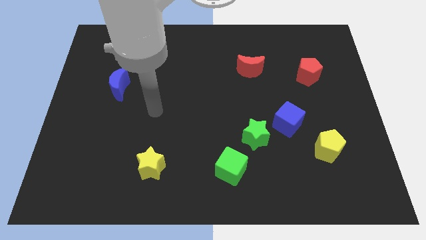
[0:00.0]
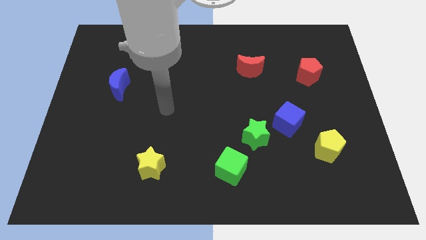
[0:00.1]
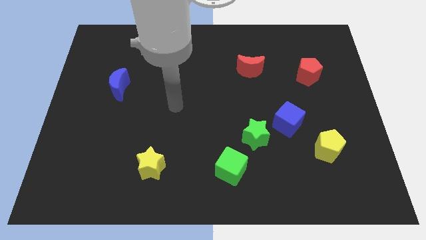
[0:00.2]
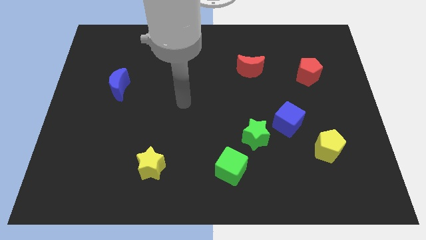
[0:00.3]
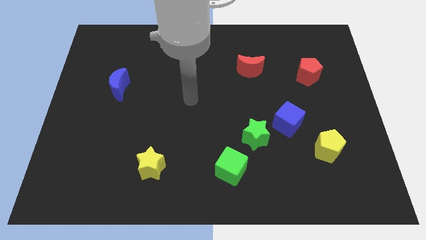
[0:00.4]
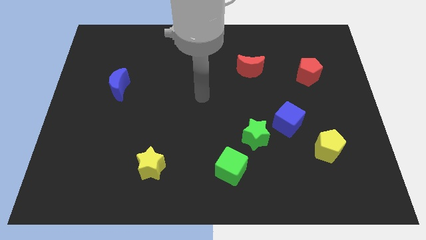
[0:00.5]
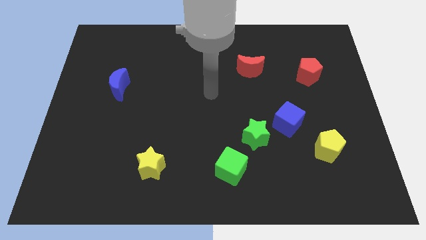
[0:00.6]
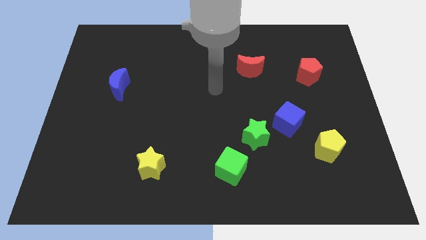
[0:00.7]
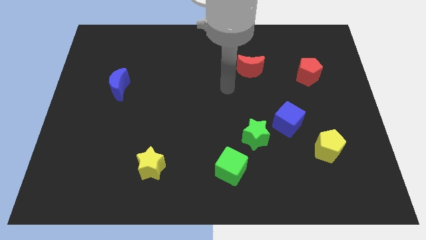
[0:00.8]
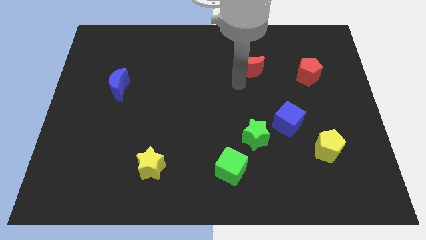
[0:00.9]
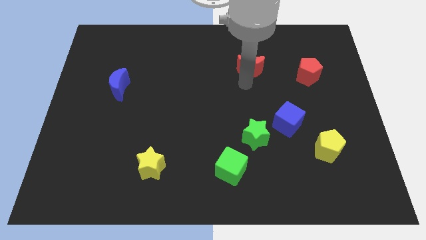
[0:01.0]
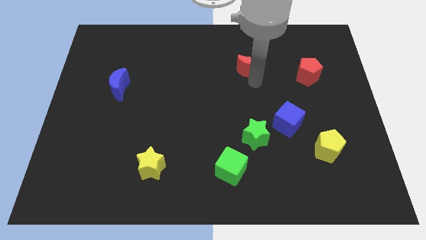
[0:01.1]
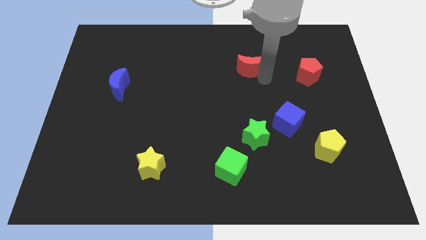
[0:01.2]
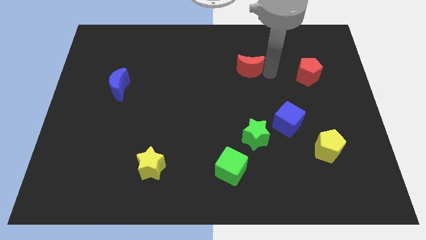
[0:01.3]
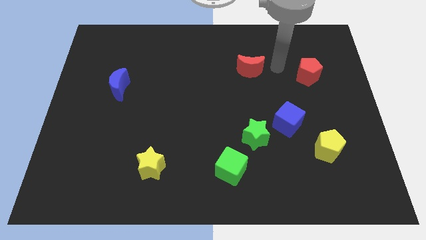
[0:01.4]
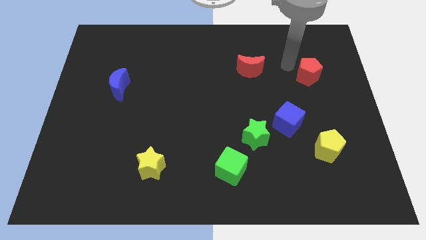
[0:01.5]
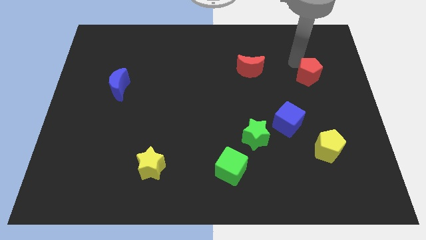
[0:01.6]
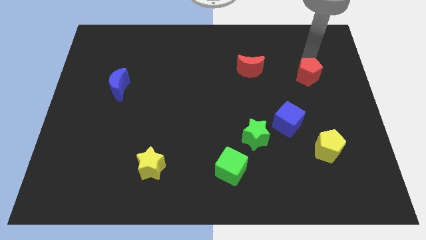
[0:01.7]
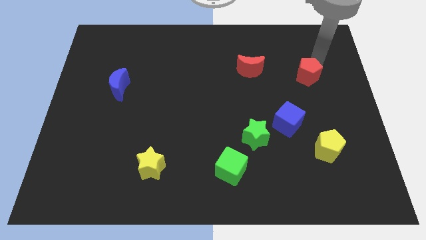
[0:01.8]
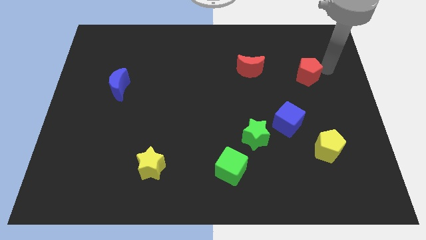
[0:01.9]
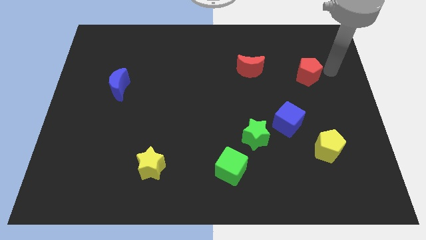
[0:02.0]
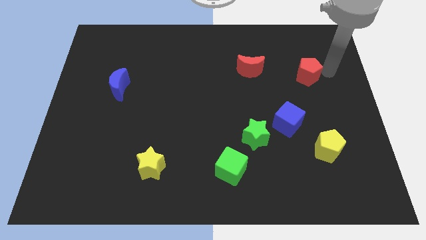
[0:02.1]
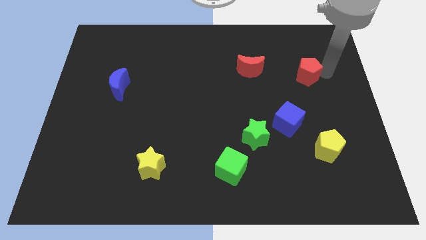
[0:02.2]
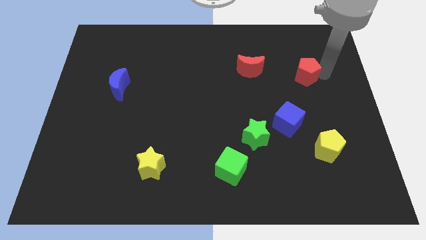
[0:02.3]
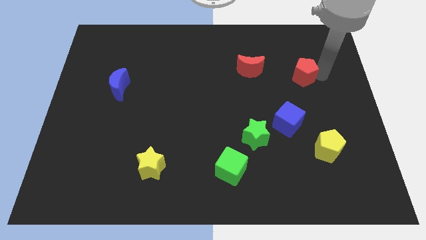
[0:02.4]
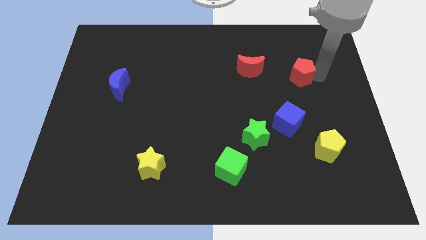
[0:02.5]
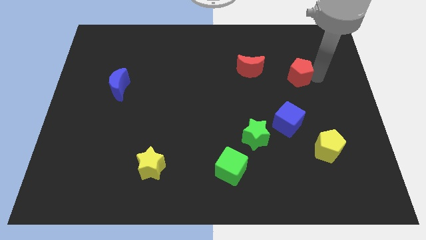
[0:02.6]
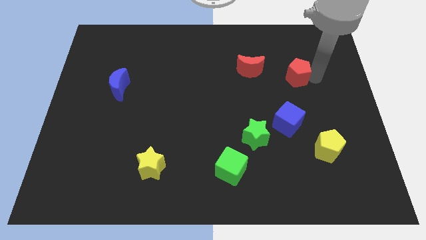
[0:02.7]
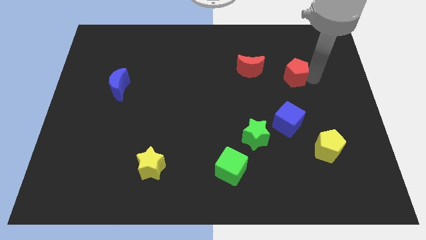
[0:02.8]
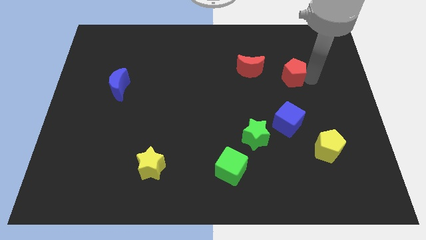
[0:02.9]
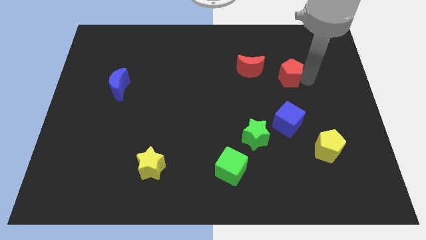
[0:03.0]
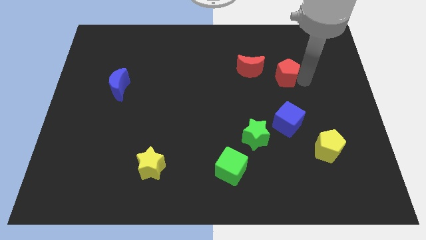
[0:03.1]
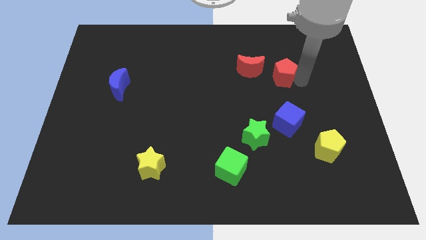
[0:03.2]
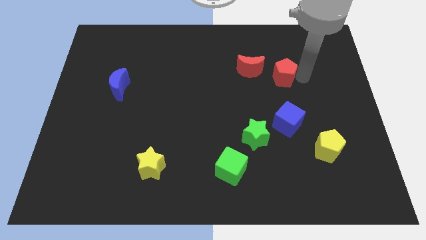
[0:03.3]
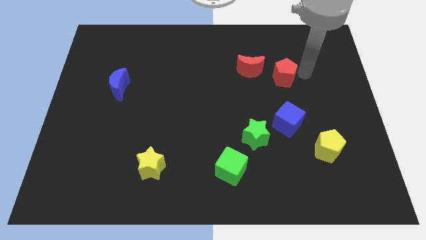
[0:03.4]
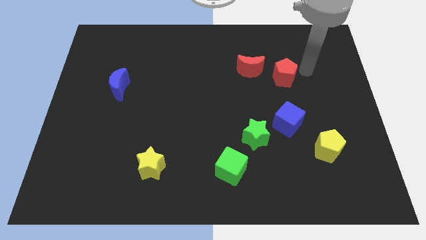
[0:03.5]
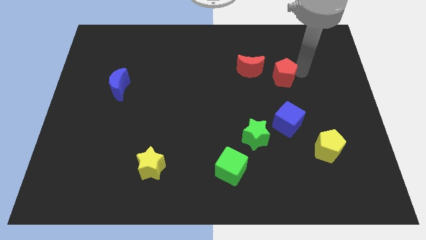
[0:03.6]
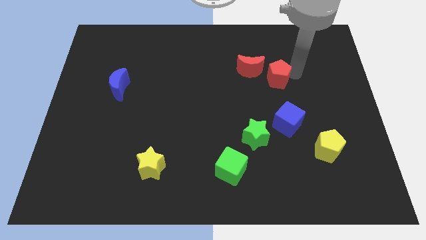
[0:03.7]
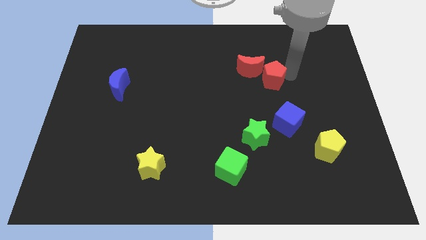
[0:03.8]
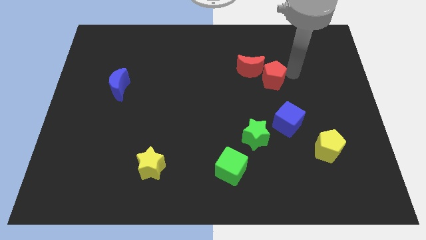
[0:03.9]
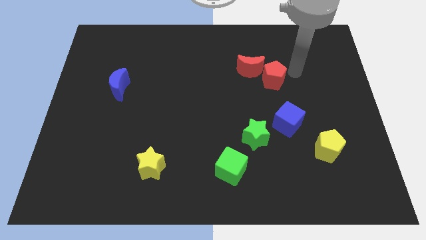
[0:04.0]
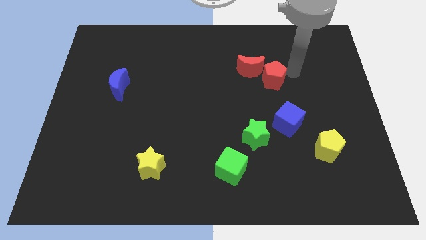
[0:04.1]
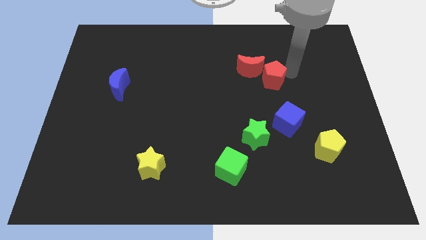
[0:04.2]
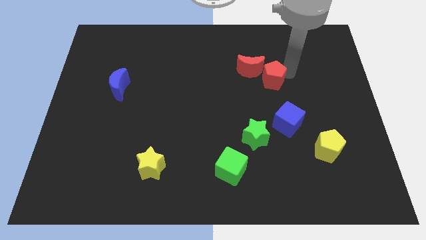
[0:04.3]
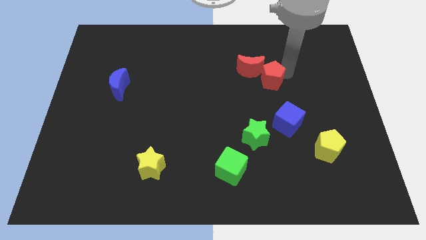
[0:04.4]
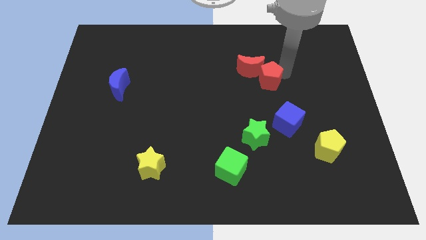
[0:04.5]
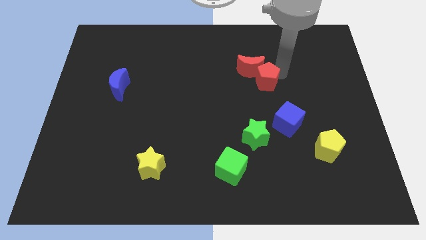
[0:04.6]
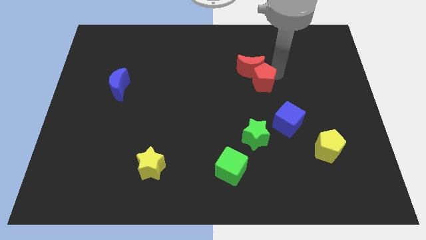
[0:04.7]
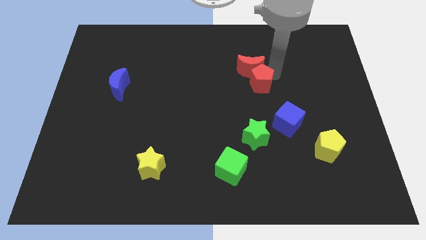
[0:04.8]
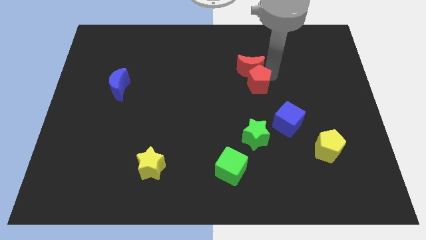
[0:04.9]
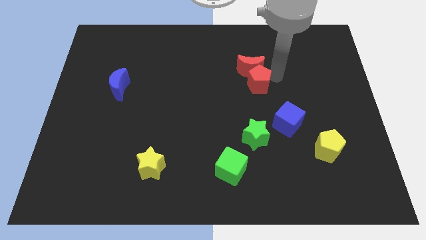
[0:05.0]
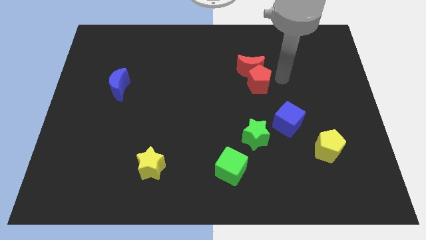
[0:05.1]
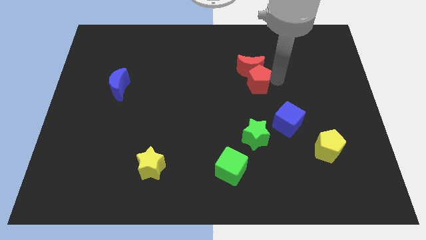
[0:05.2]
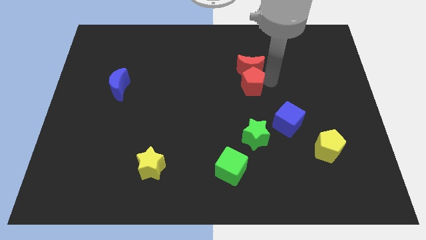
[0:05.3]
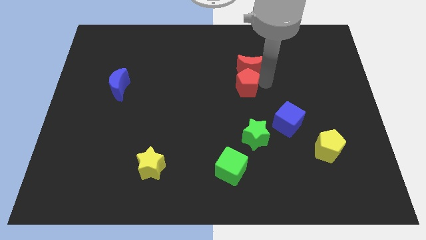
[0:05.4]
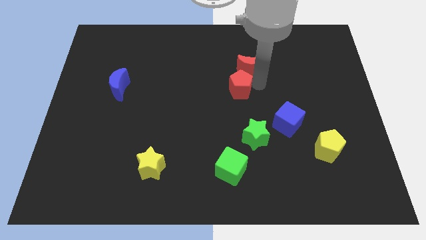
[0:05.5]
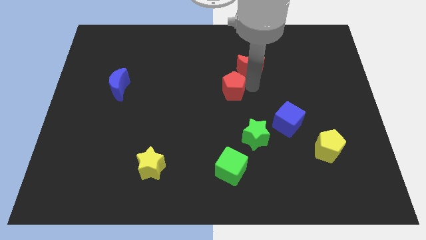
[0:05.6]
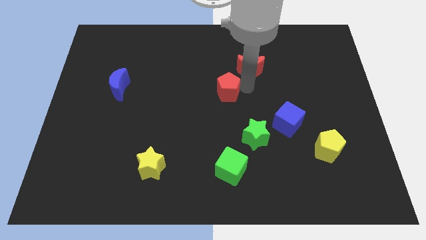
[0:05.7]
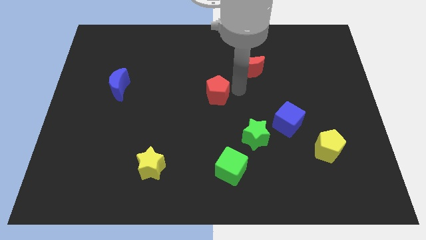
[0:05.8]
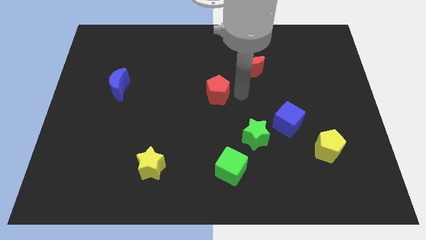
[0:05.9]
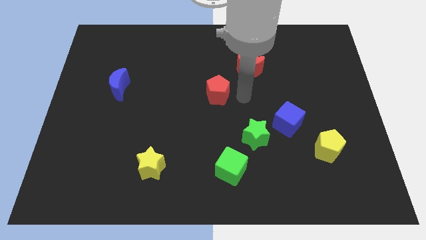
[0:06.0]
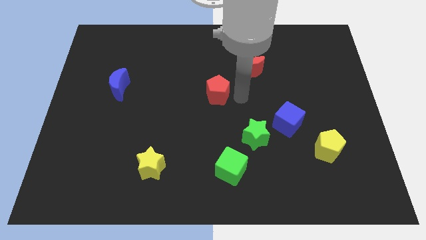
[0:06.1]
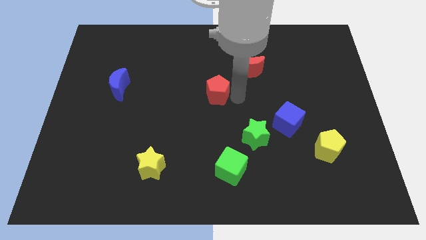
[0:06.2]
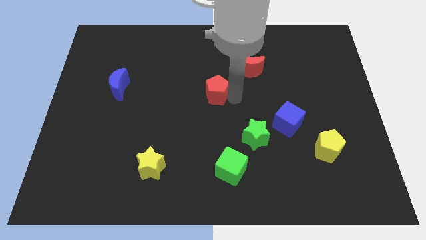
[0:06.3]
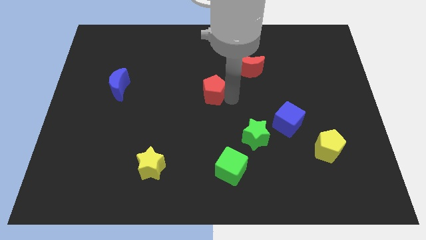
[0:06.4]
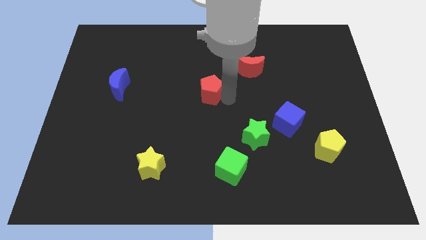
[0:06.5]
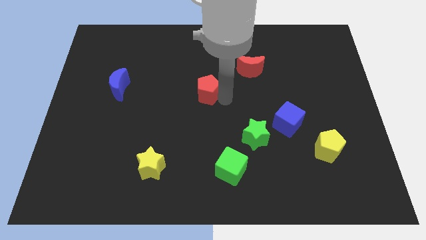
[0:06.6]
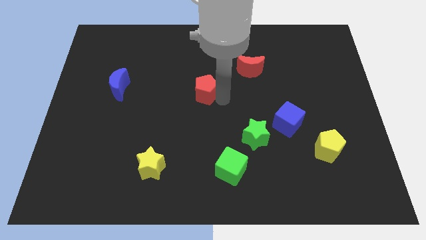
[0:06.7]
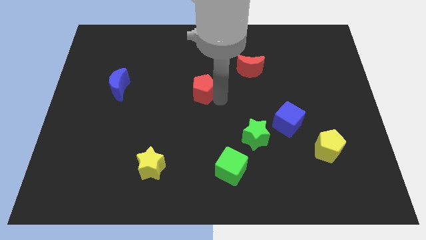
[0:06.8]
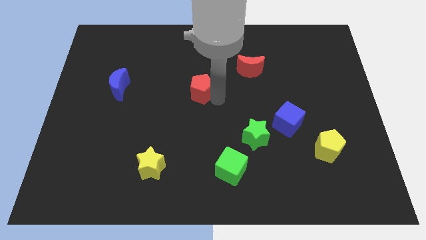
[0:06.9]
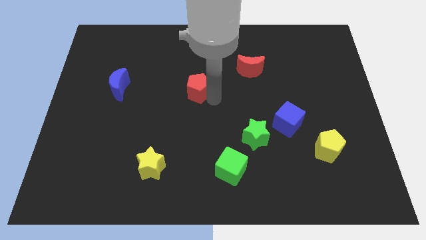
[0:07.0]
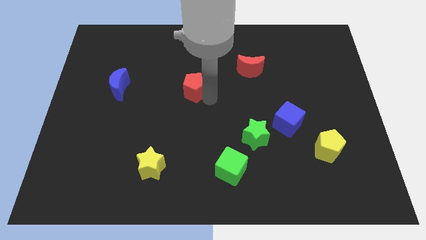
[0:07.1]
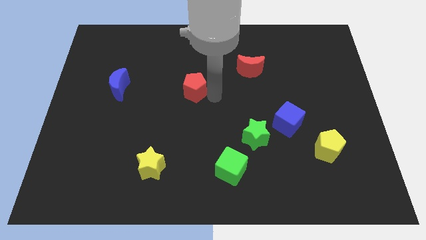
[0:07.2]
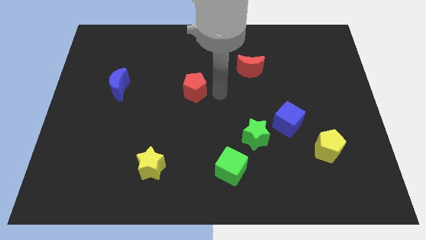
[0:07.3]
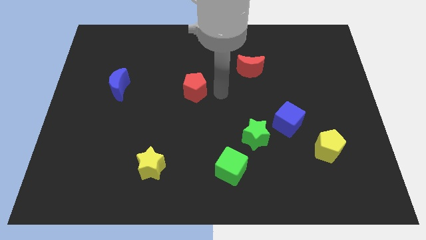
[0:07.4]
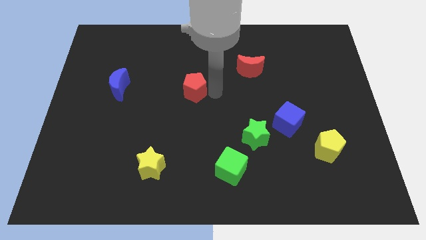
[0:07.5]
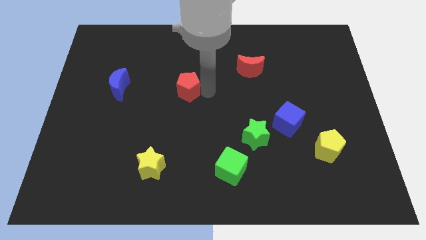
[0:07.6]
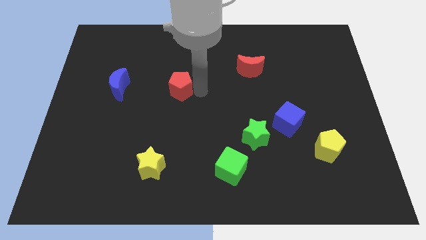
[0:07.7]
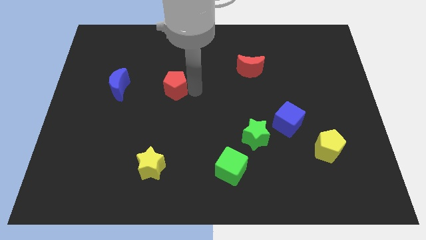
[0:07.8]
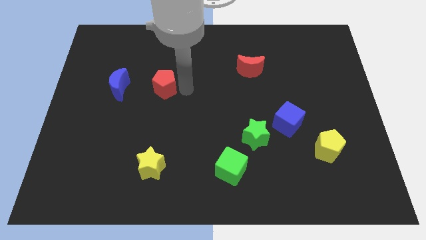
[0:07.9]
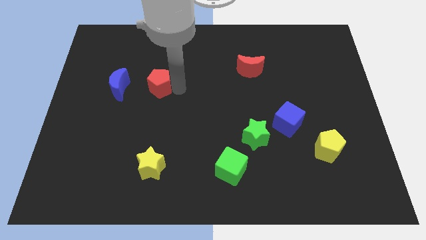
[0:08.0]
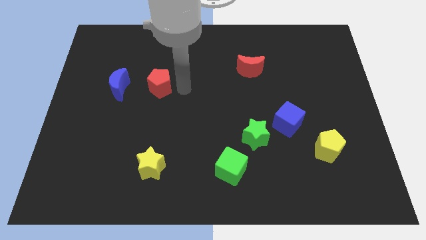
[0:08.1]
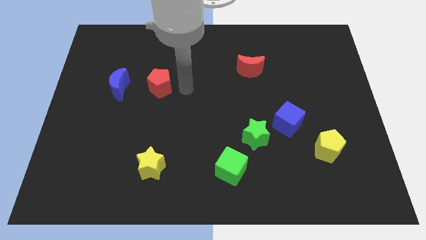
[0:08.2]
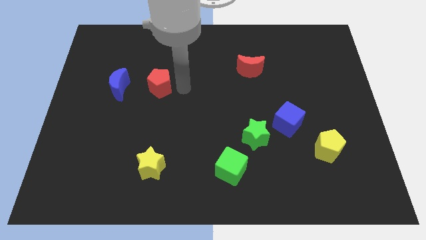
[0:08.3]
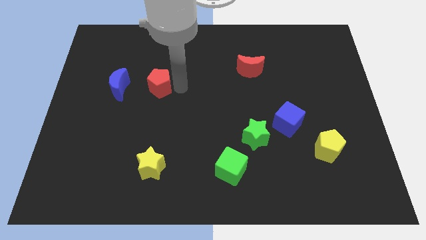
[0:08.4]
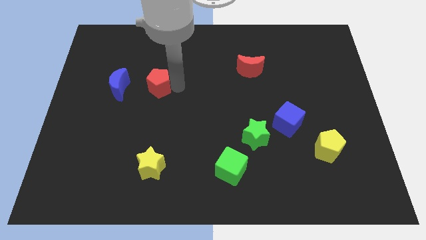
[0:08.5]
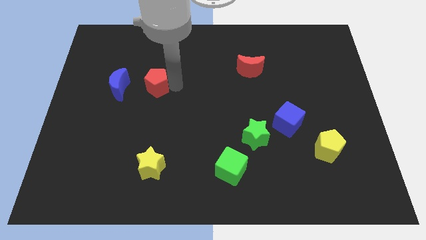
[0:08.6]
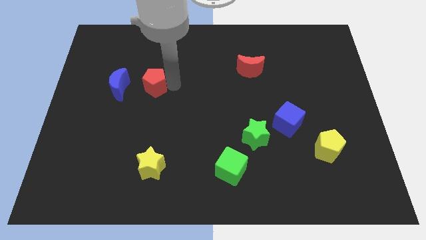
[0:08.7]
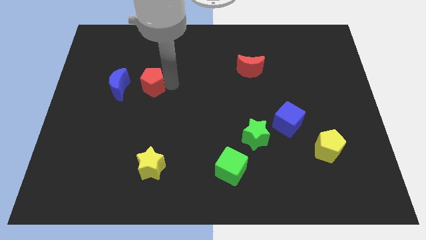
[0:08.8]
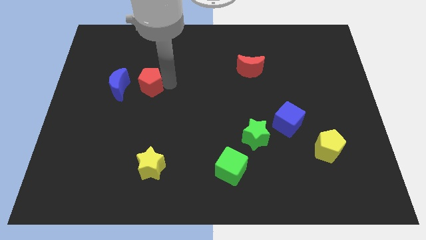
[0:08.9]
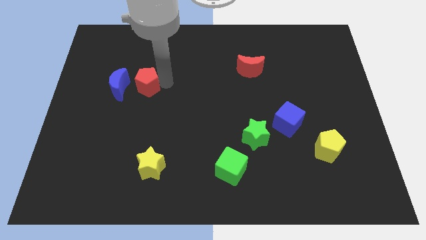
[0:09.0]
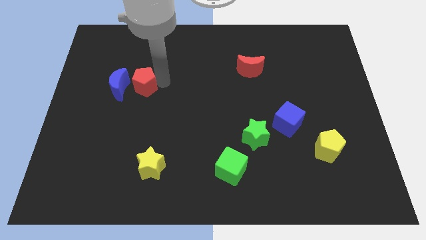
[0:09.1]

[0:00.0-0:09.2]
move the red pentagon to the blue moon
